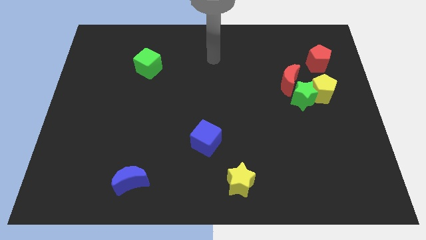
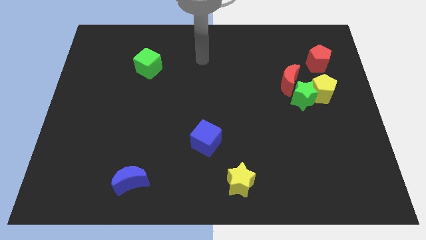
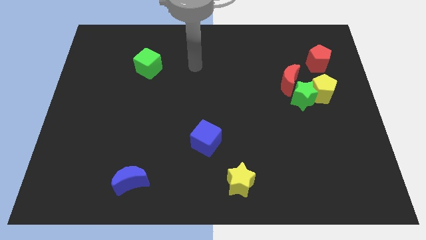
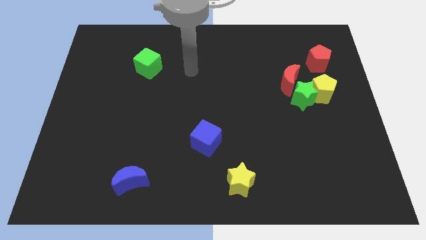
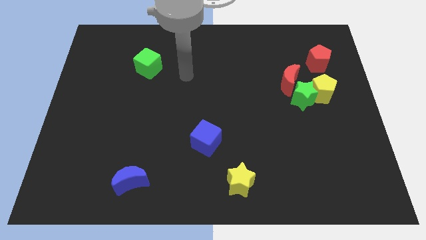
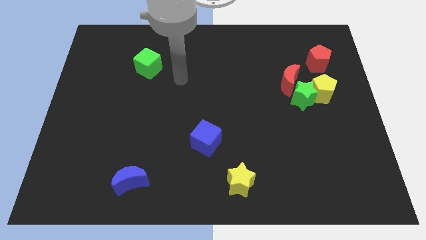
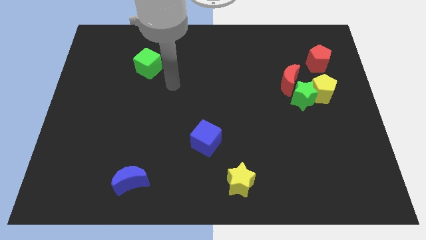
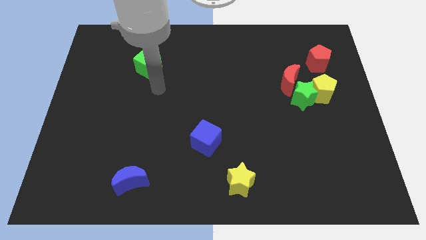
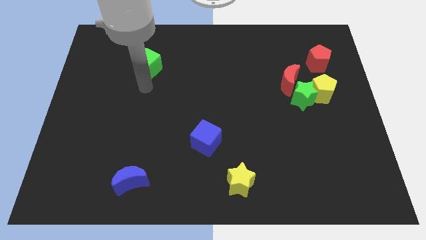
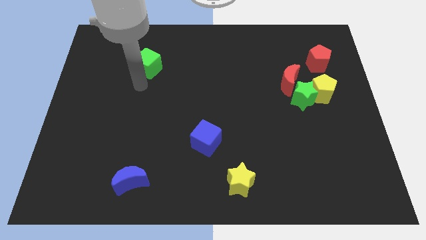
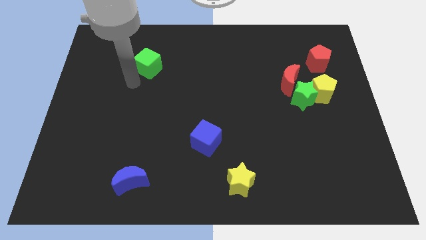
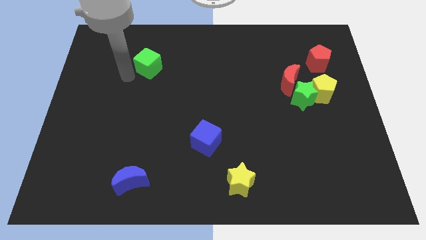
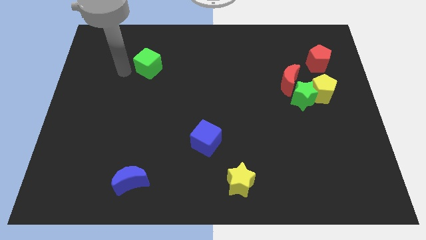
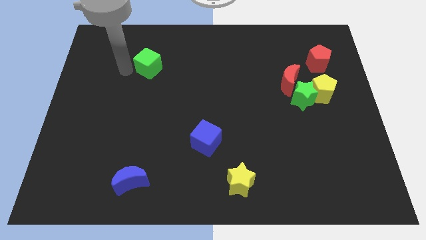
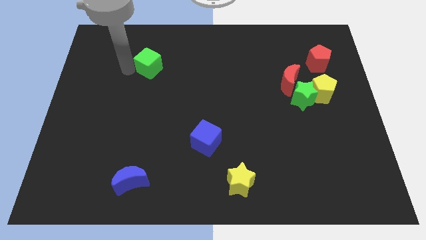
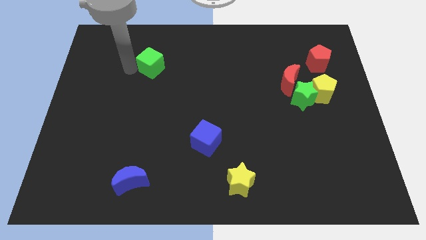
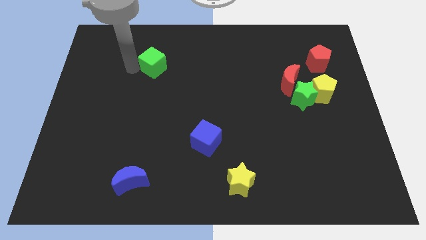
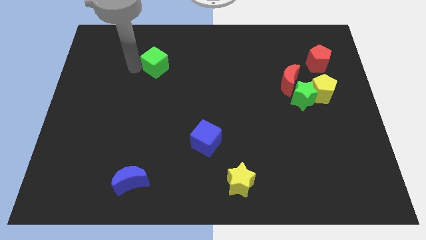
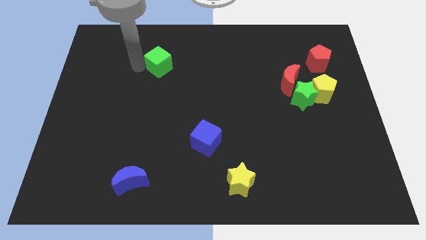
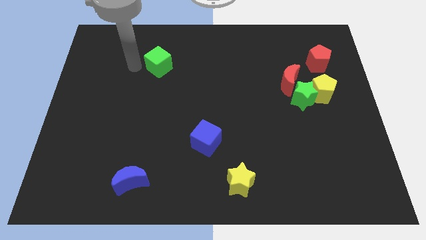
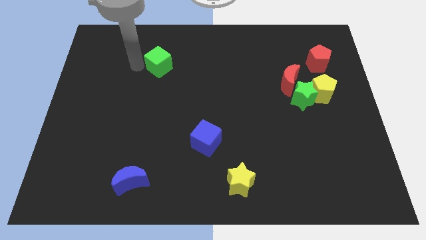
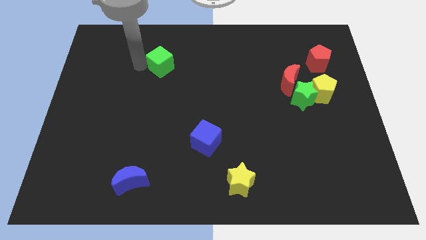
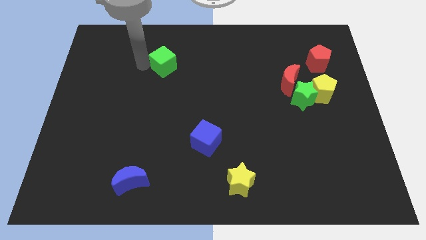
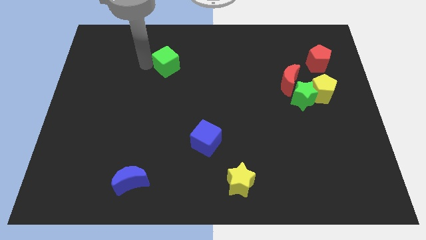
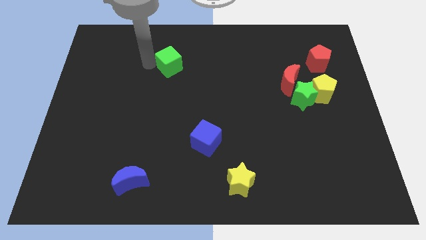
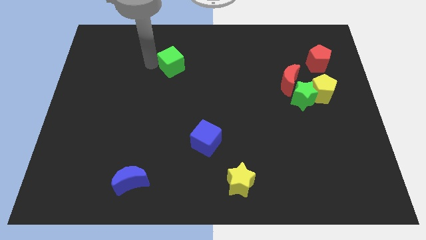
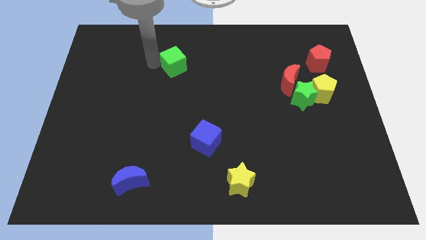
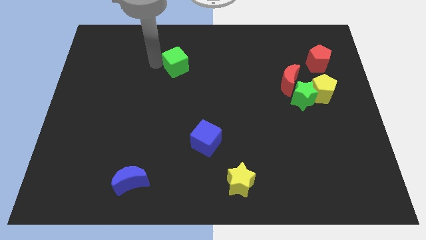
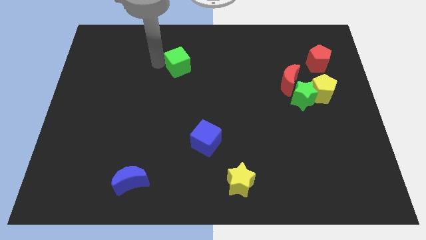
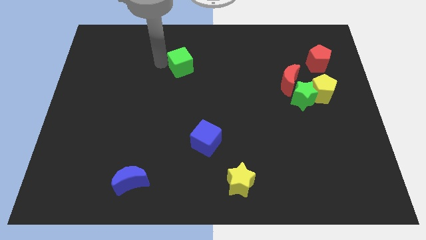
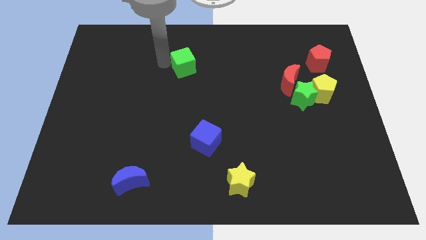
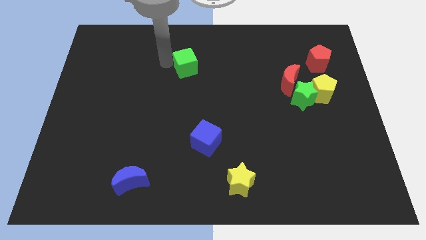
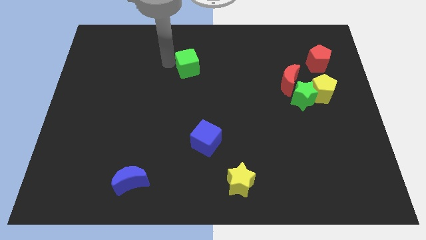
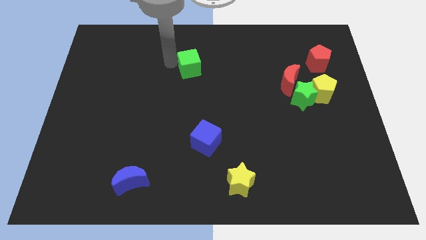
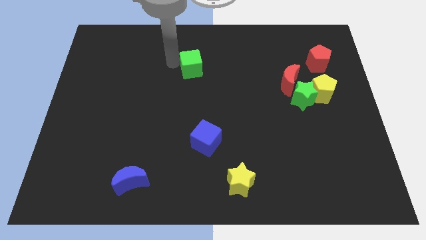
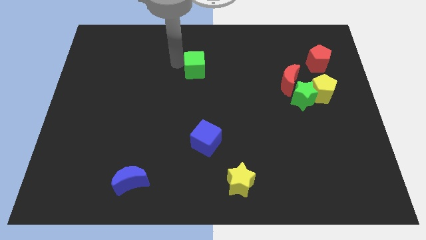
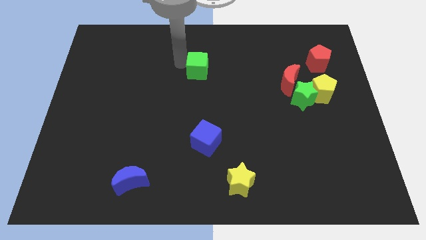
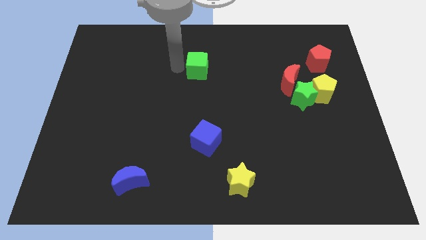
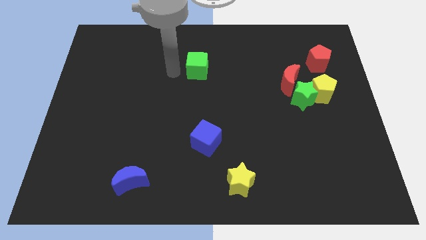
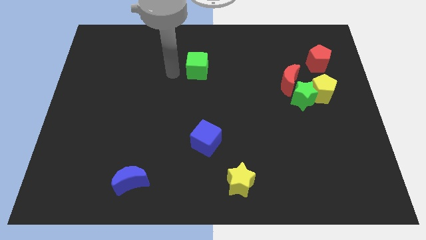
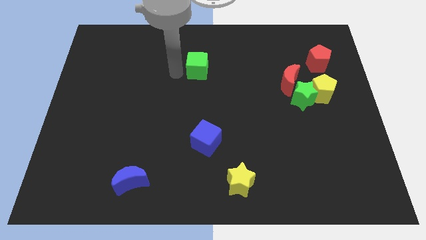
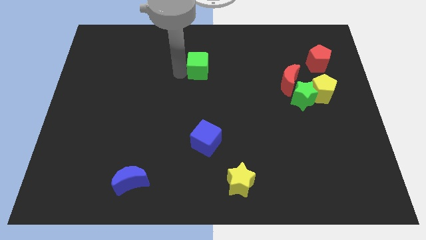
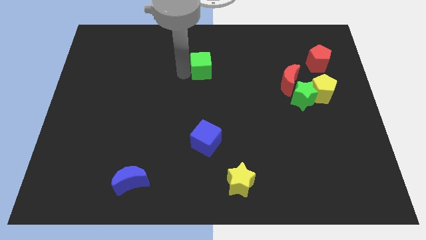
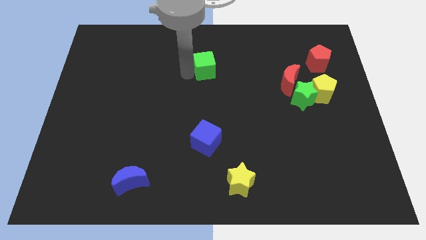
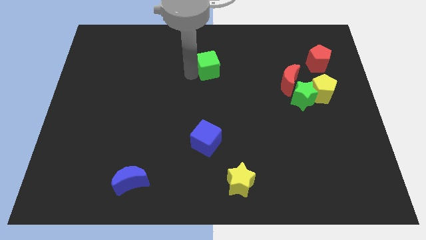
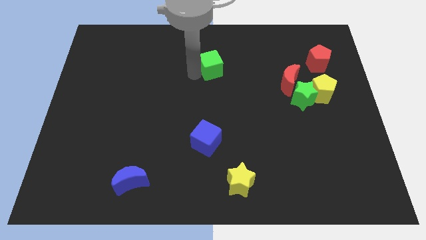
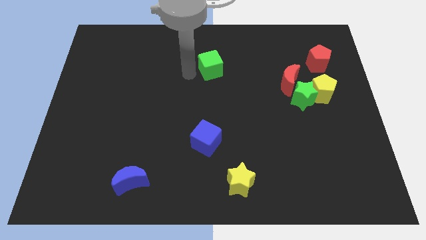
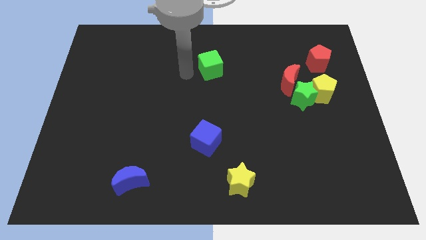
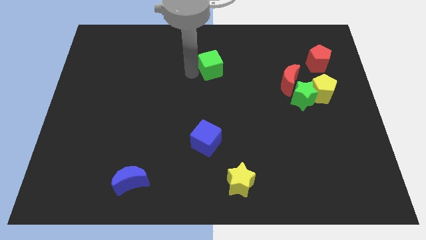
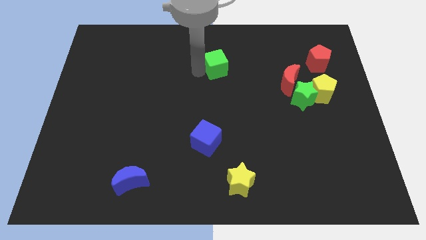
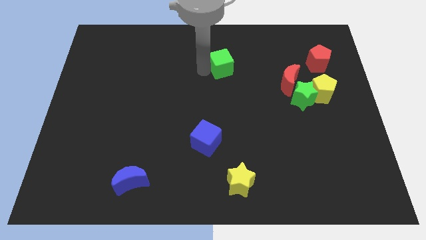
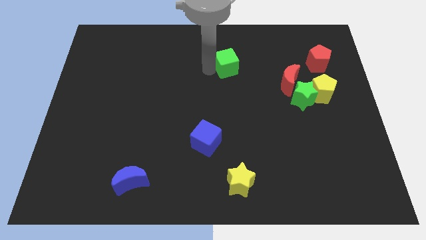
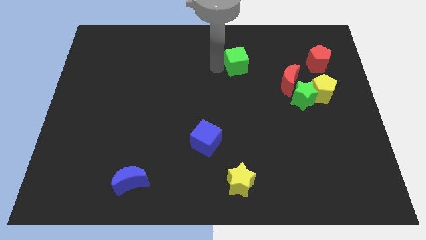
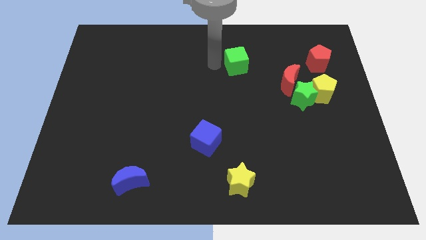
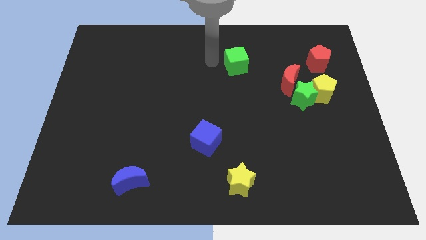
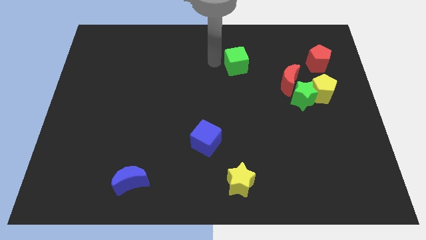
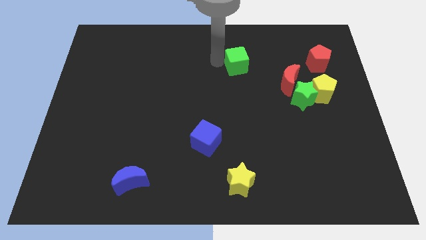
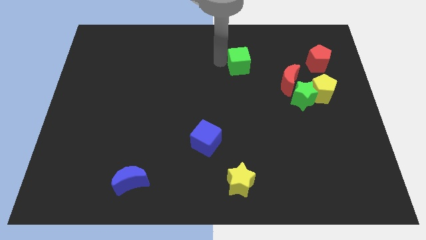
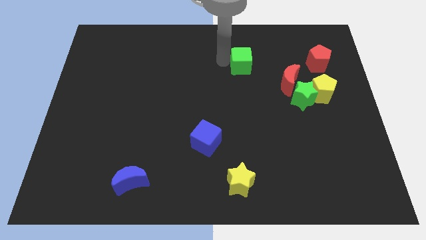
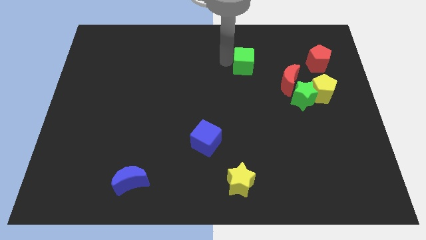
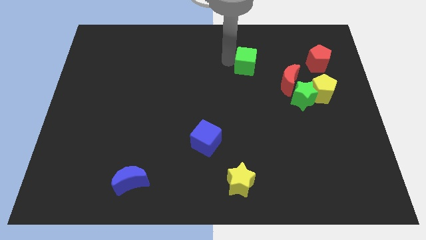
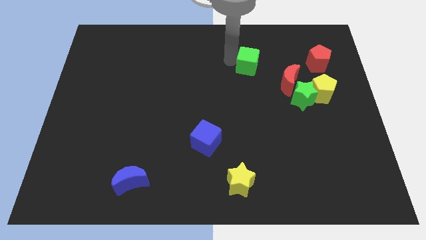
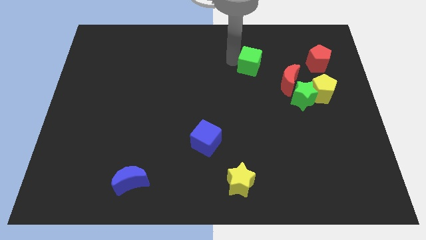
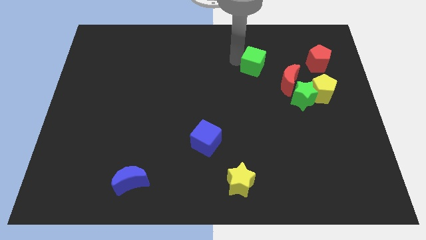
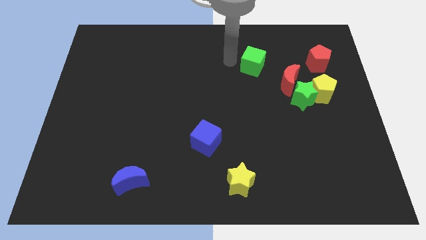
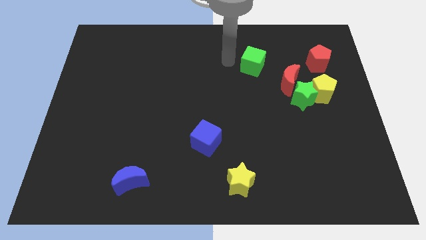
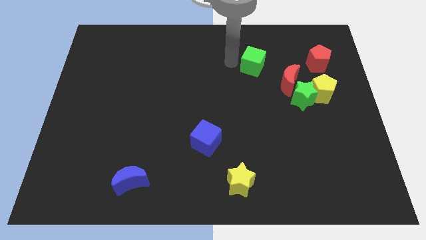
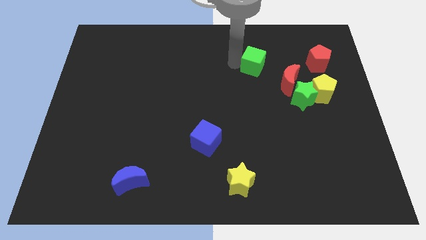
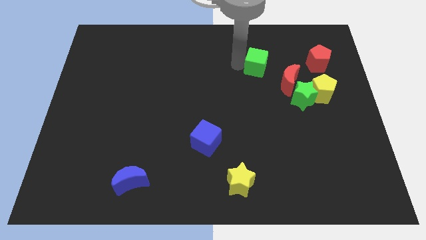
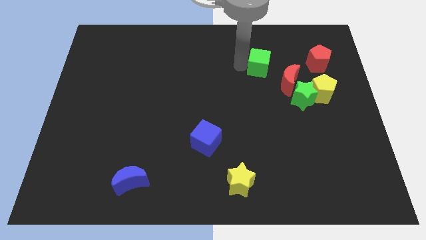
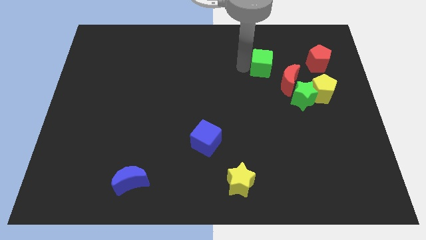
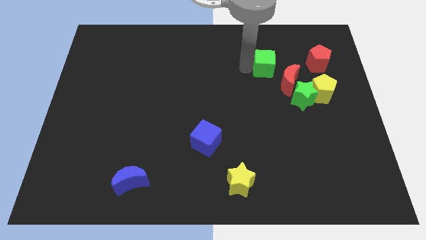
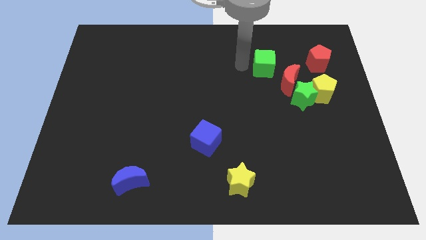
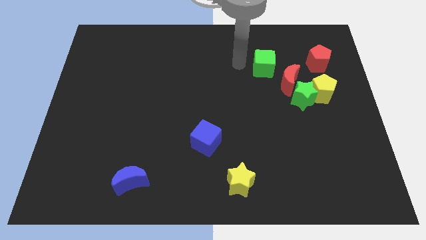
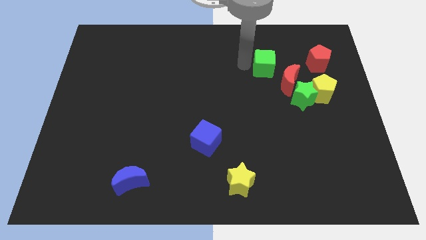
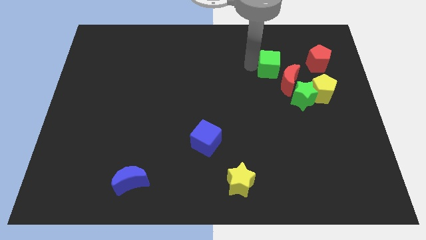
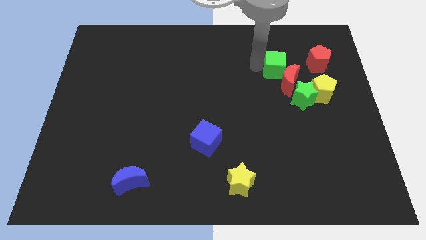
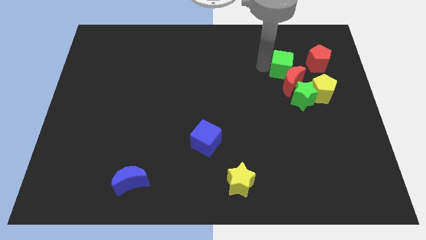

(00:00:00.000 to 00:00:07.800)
slide the green cube diagonally up and to the left of the yellow pentagon
